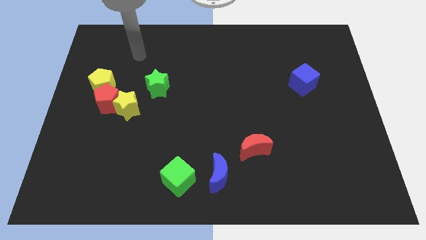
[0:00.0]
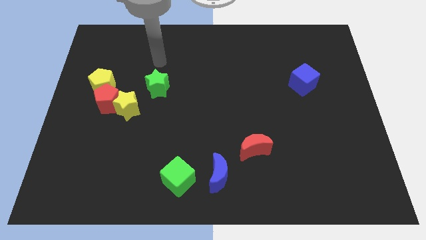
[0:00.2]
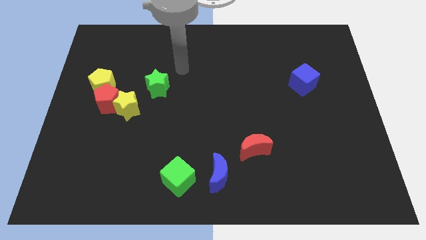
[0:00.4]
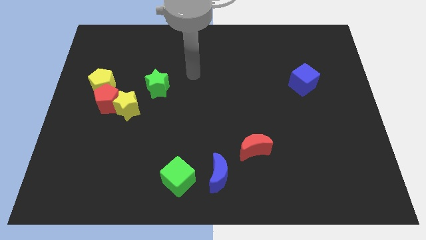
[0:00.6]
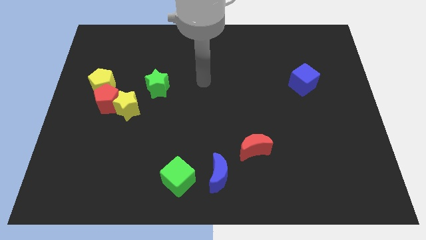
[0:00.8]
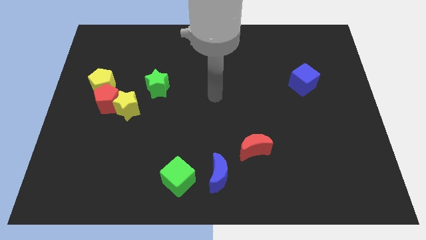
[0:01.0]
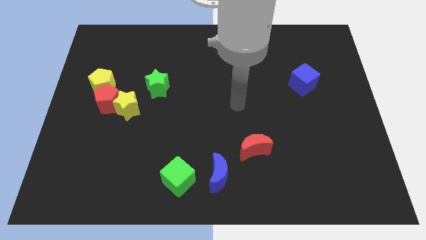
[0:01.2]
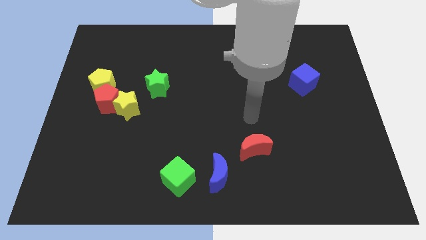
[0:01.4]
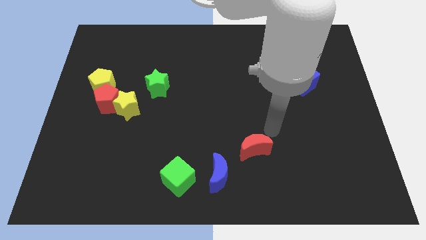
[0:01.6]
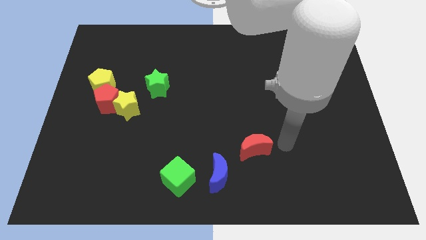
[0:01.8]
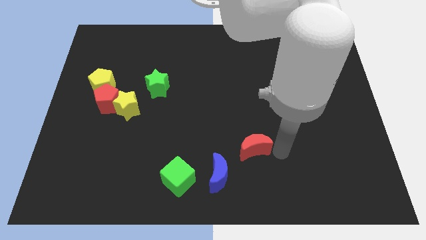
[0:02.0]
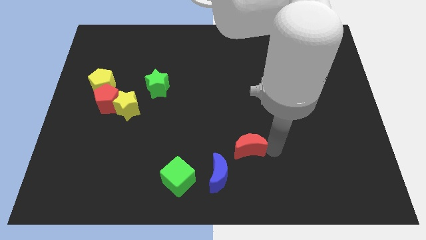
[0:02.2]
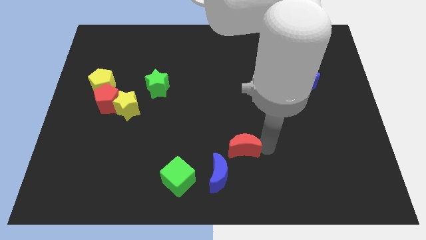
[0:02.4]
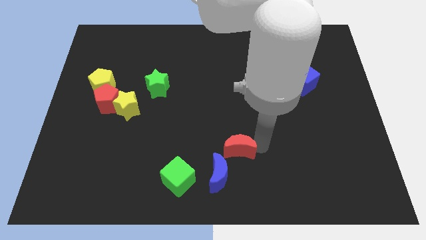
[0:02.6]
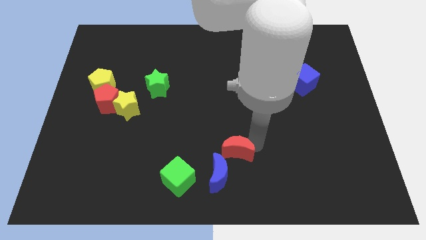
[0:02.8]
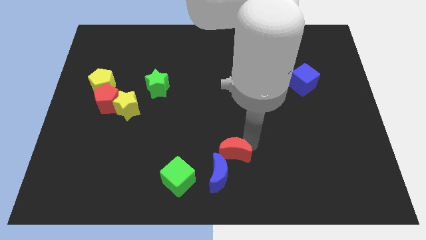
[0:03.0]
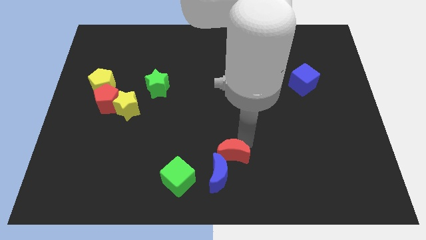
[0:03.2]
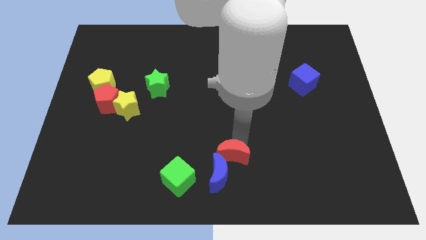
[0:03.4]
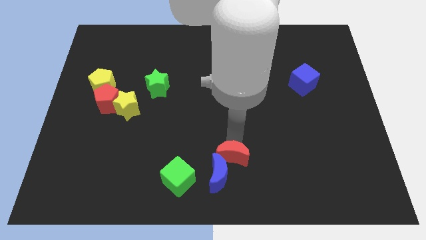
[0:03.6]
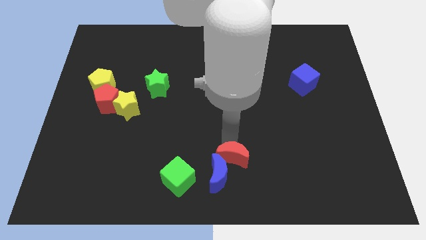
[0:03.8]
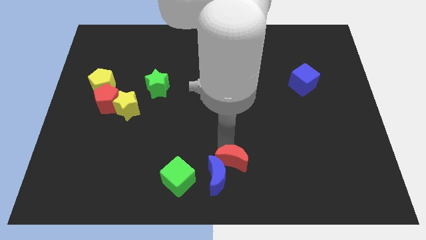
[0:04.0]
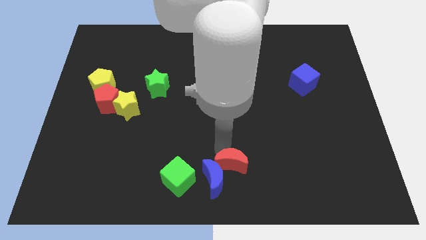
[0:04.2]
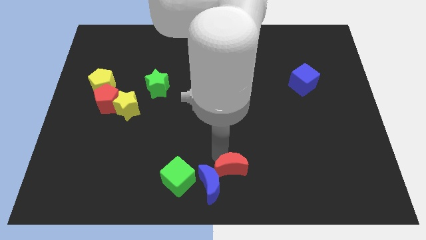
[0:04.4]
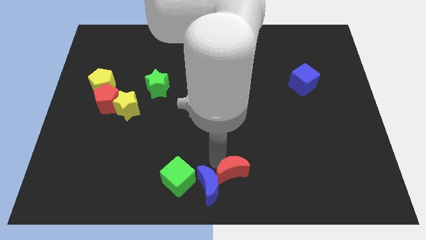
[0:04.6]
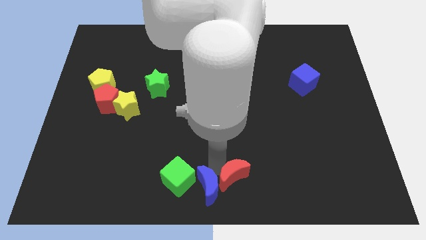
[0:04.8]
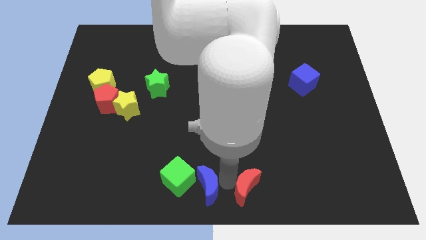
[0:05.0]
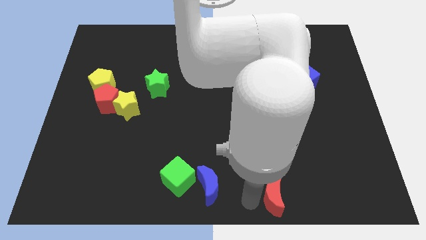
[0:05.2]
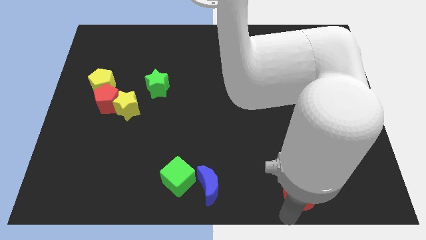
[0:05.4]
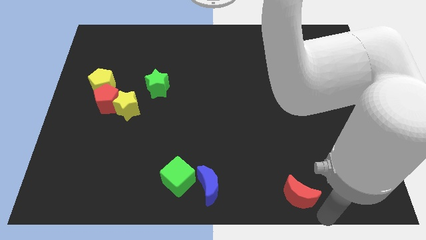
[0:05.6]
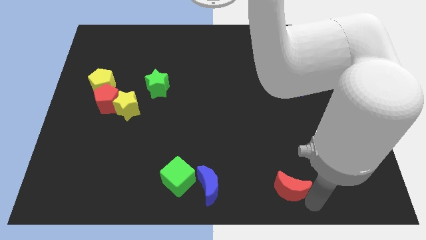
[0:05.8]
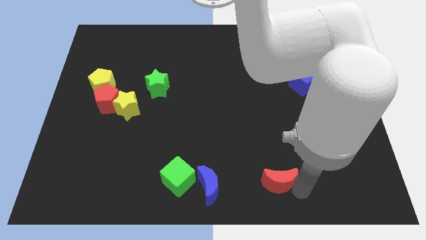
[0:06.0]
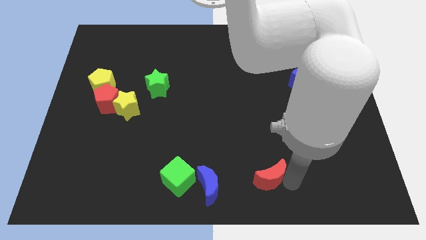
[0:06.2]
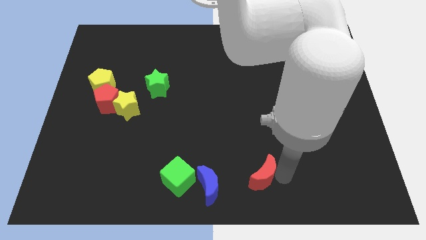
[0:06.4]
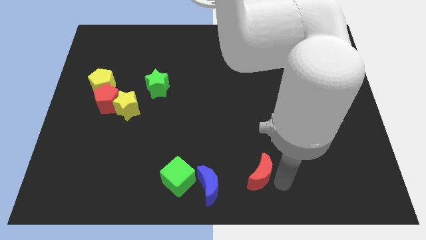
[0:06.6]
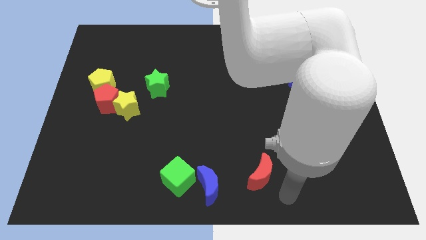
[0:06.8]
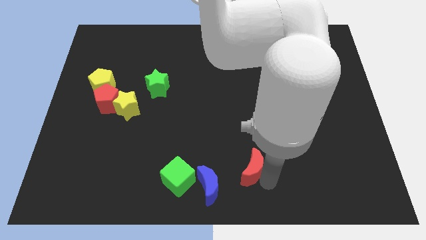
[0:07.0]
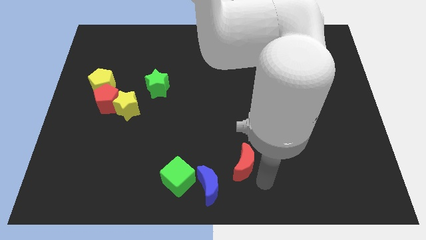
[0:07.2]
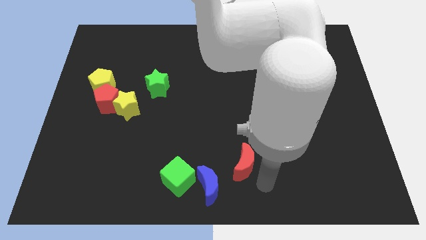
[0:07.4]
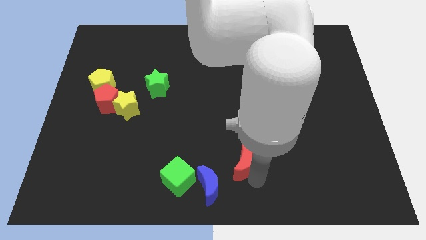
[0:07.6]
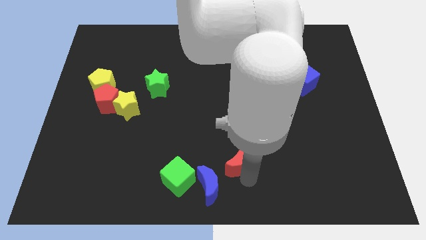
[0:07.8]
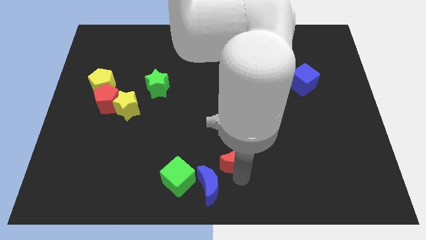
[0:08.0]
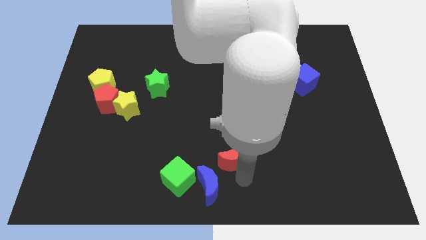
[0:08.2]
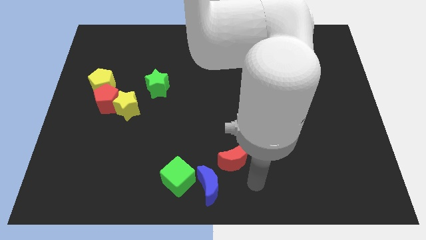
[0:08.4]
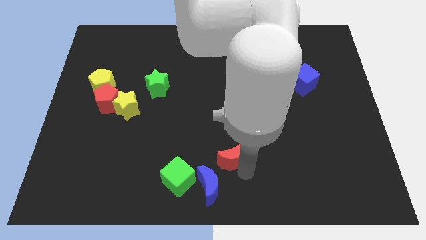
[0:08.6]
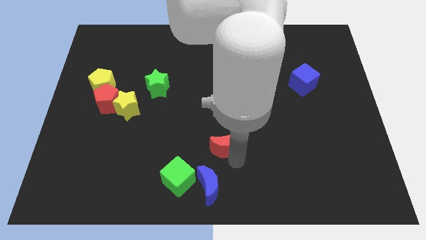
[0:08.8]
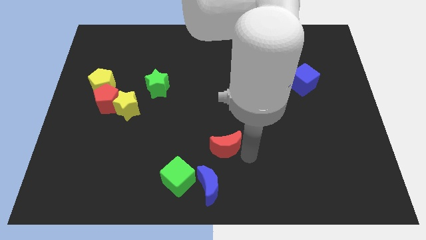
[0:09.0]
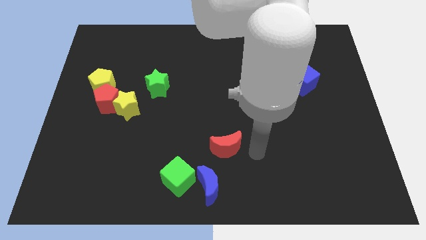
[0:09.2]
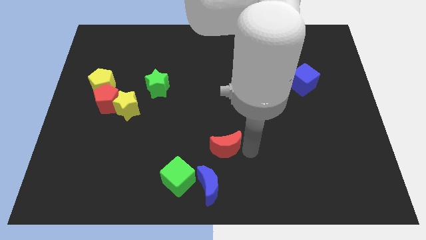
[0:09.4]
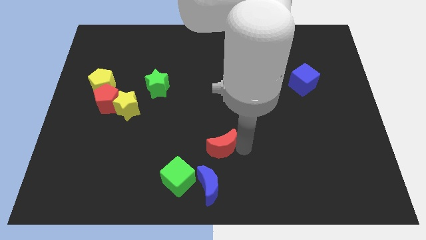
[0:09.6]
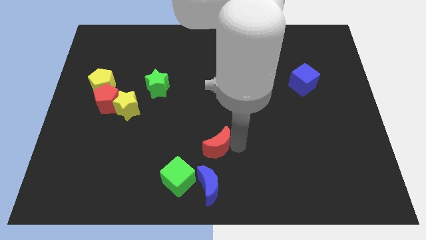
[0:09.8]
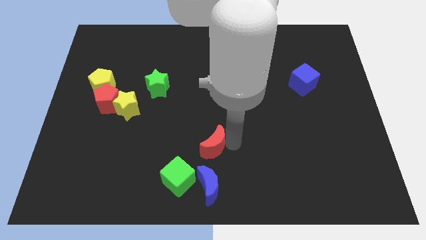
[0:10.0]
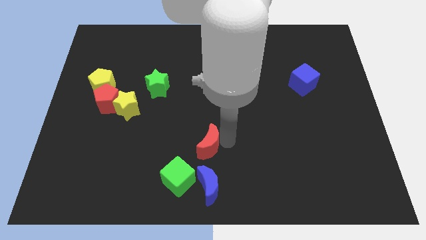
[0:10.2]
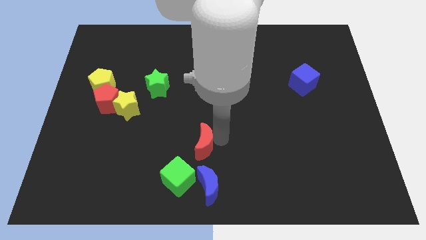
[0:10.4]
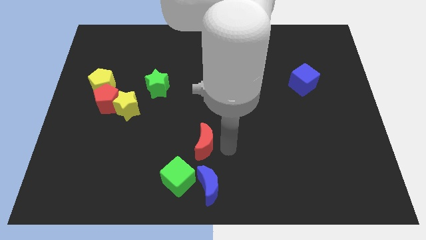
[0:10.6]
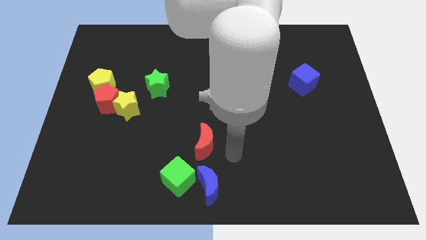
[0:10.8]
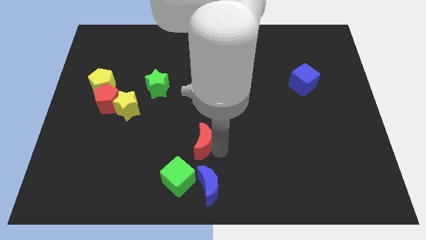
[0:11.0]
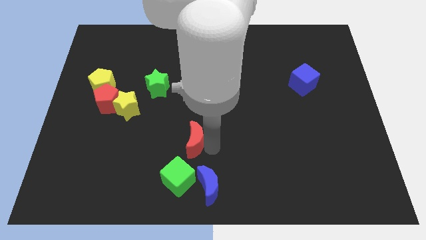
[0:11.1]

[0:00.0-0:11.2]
move the red moon to the top of the green cube

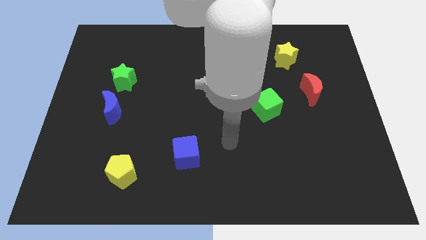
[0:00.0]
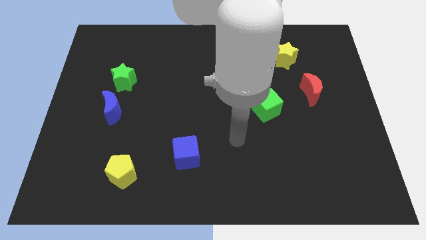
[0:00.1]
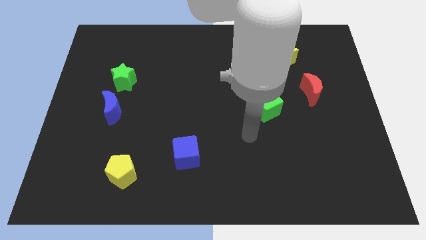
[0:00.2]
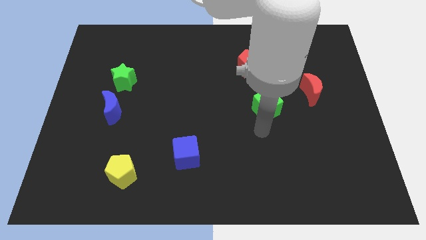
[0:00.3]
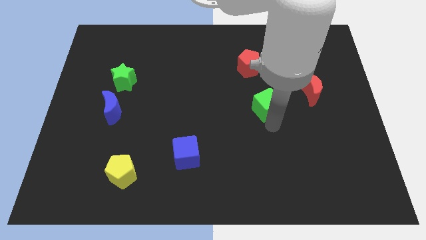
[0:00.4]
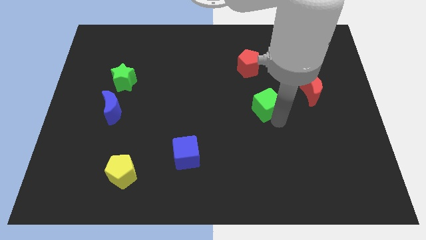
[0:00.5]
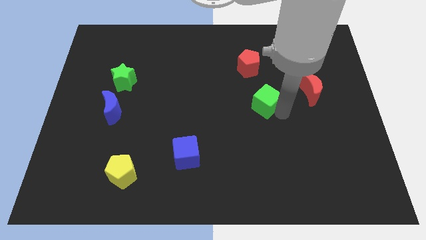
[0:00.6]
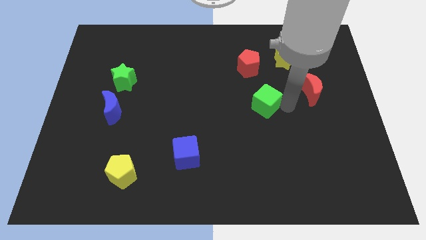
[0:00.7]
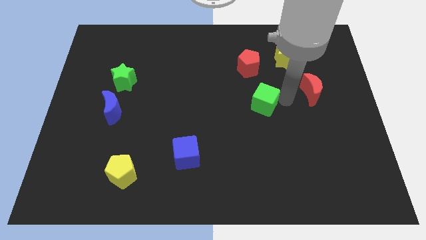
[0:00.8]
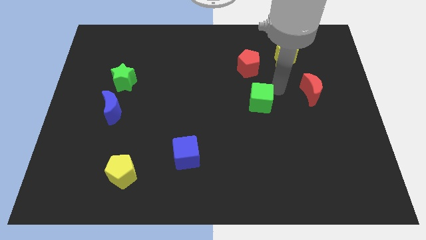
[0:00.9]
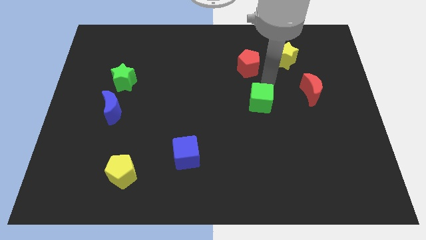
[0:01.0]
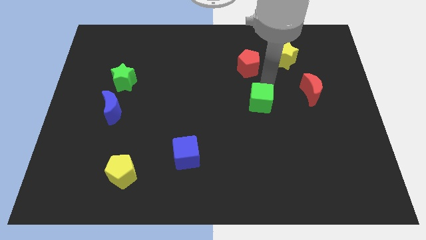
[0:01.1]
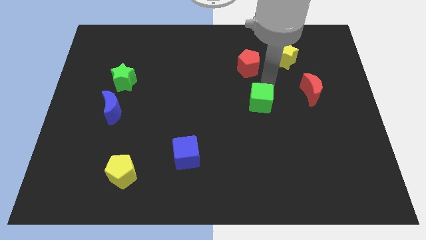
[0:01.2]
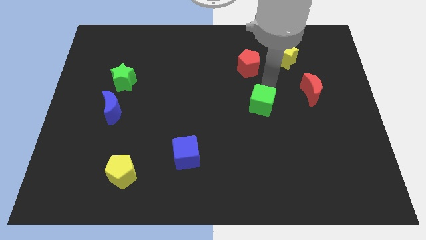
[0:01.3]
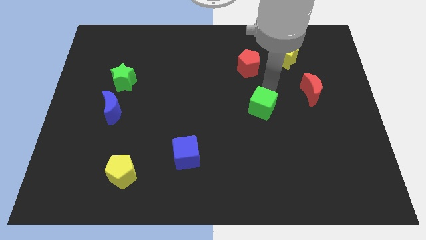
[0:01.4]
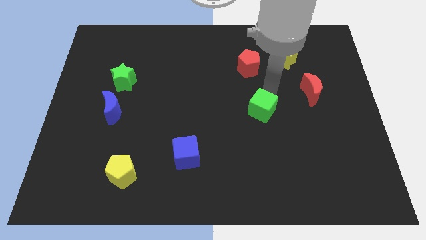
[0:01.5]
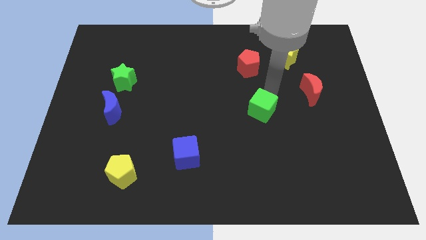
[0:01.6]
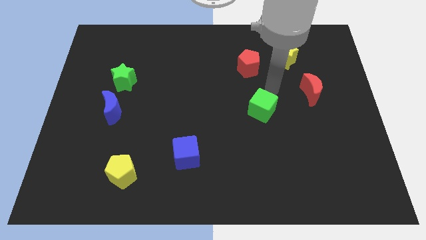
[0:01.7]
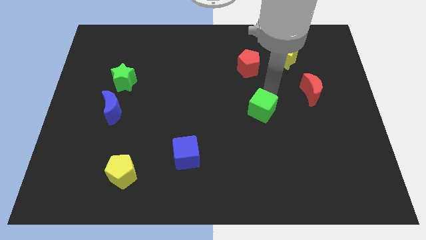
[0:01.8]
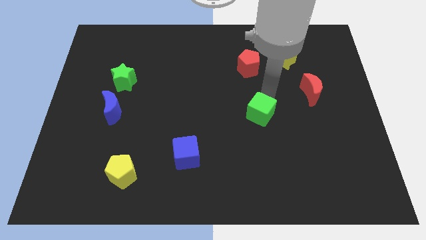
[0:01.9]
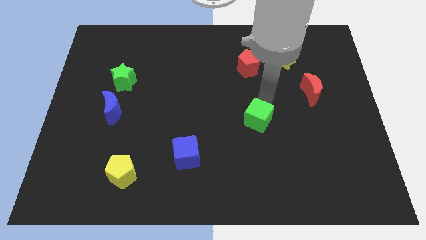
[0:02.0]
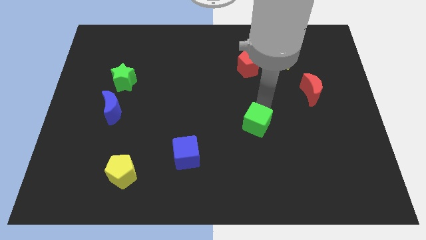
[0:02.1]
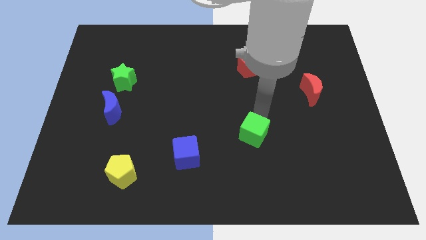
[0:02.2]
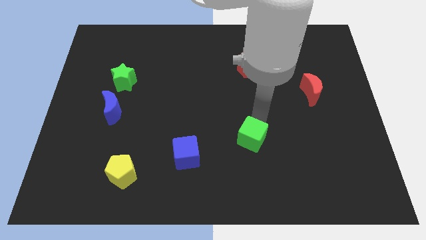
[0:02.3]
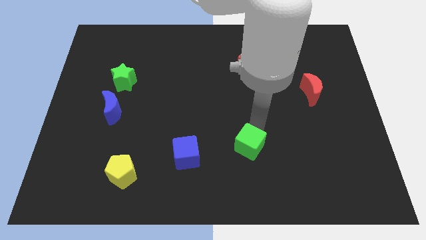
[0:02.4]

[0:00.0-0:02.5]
slide the green cube just right of the blue cube

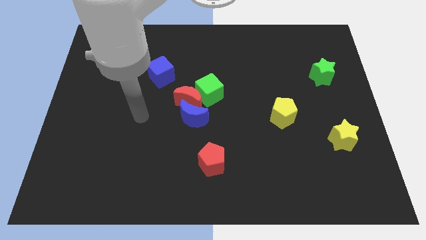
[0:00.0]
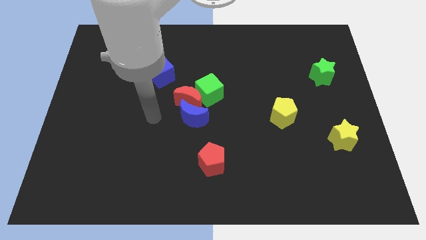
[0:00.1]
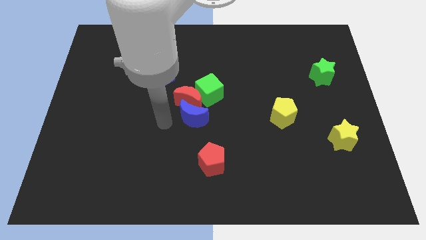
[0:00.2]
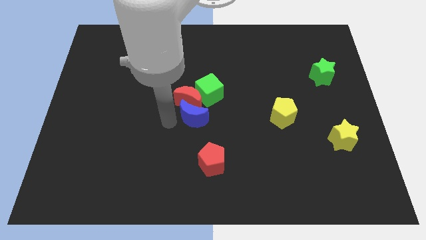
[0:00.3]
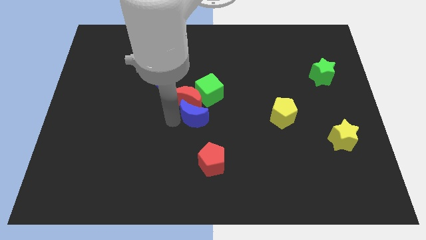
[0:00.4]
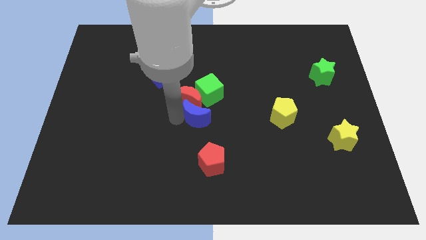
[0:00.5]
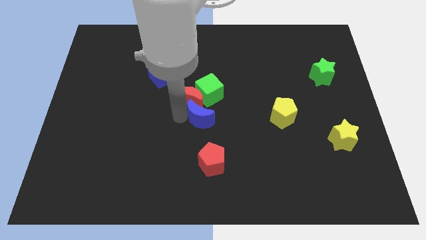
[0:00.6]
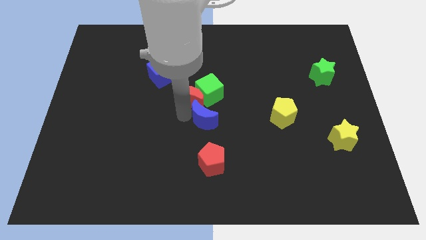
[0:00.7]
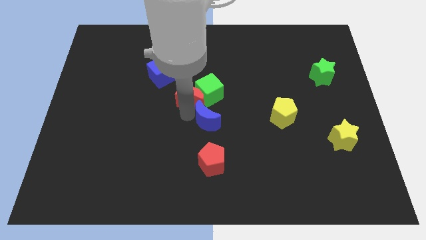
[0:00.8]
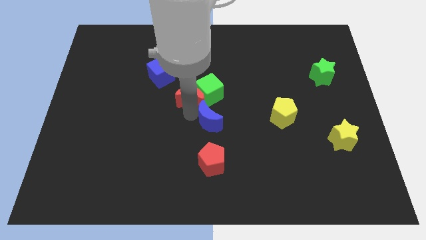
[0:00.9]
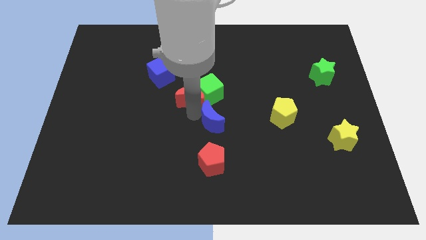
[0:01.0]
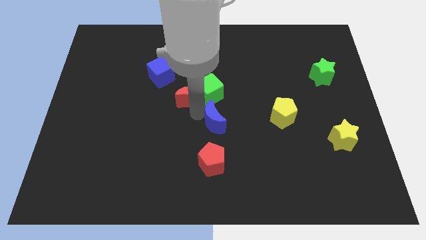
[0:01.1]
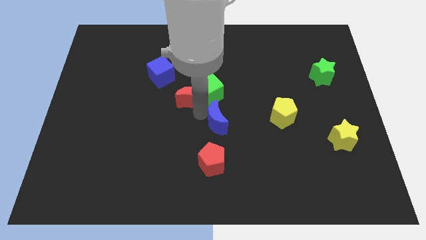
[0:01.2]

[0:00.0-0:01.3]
put the blue moon diagonally down and to the right of the green cube
